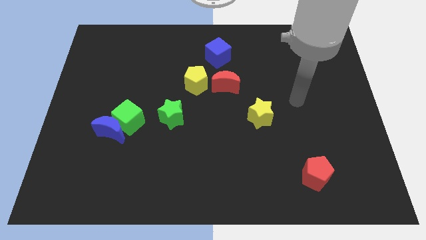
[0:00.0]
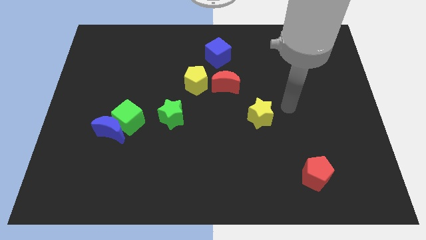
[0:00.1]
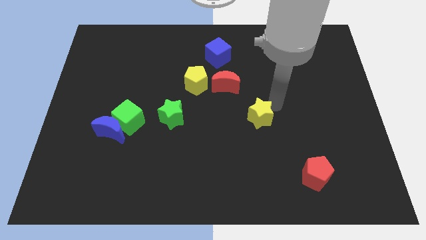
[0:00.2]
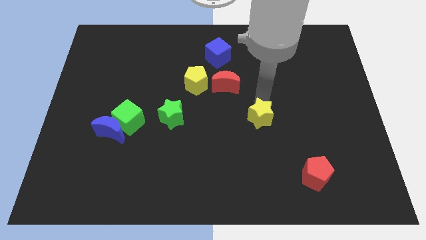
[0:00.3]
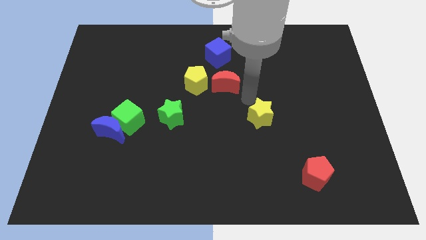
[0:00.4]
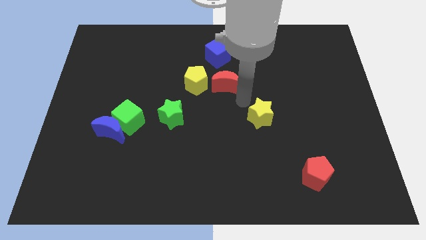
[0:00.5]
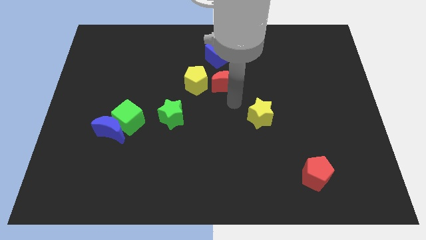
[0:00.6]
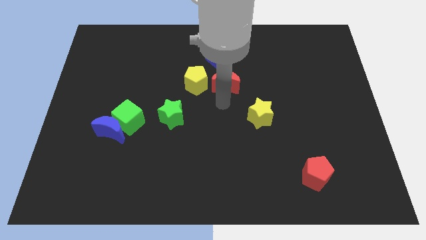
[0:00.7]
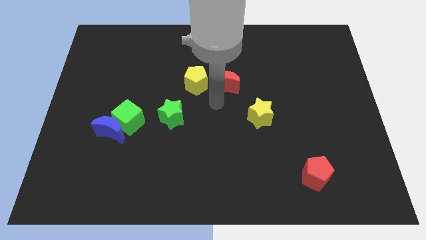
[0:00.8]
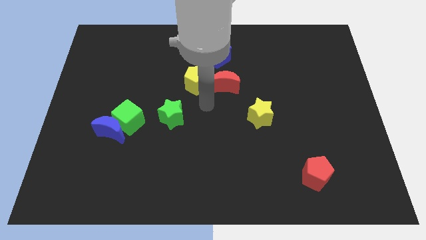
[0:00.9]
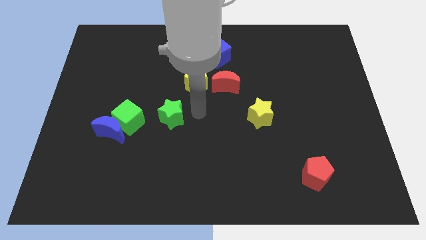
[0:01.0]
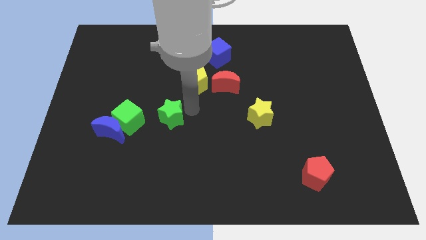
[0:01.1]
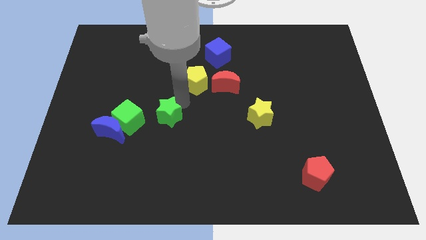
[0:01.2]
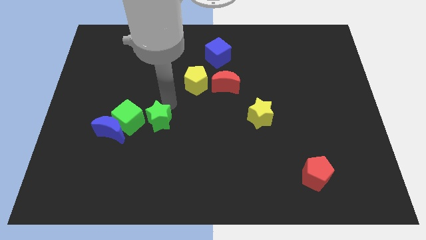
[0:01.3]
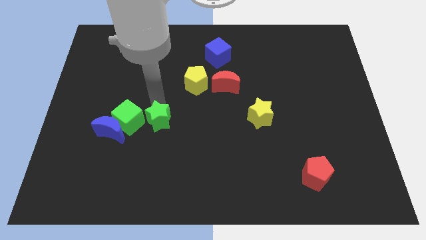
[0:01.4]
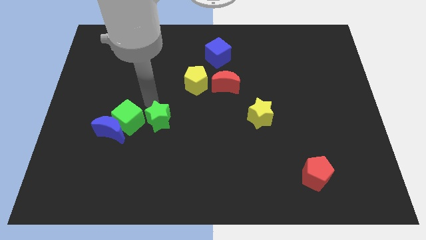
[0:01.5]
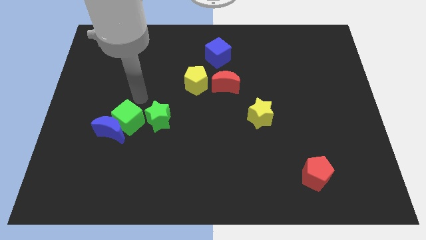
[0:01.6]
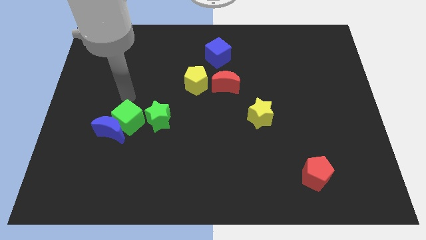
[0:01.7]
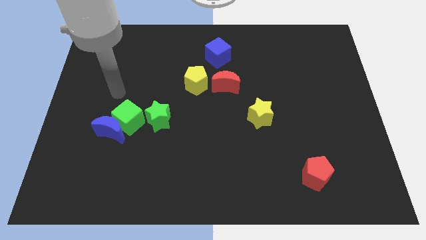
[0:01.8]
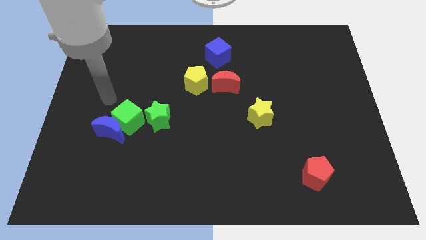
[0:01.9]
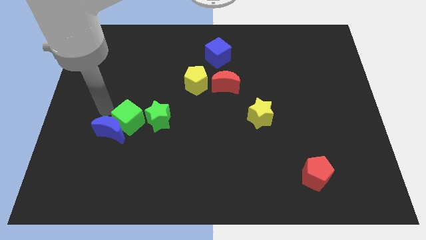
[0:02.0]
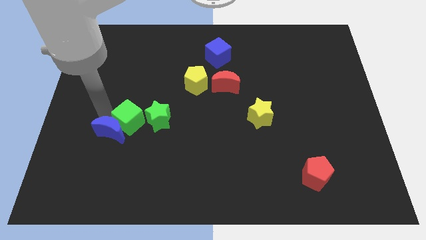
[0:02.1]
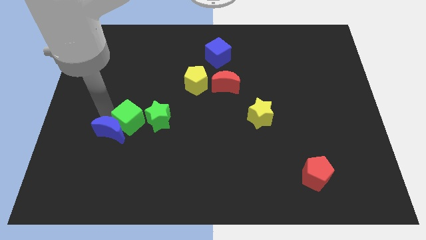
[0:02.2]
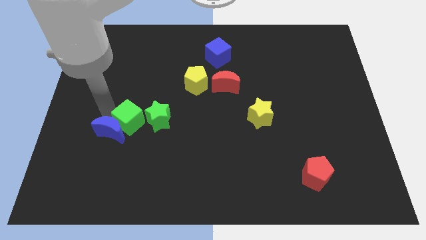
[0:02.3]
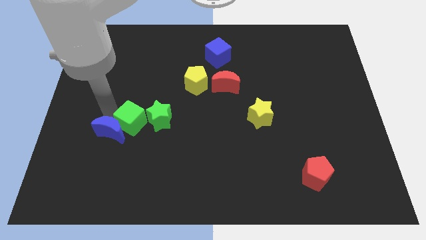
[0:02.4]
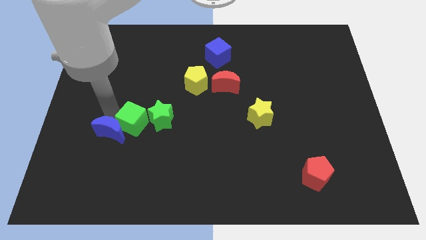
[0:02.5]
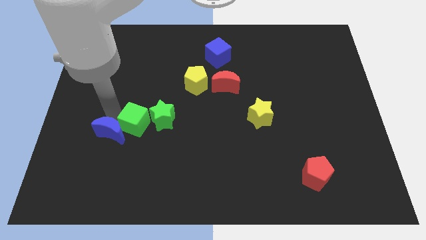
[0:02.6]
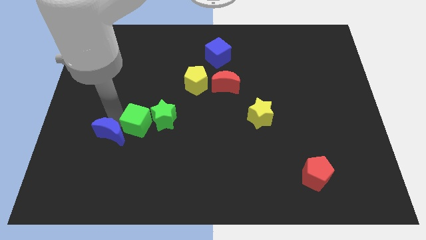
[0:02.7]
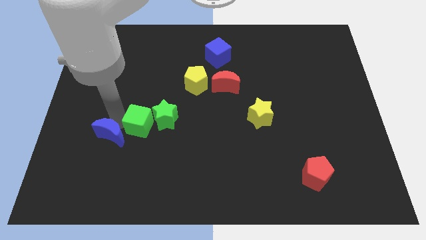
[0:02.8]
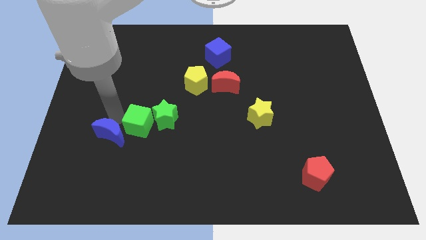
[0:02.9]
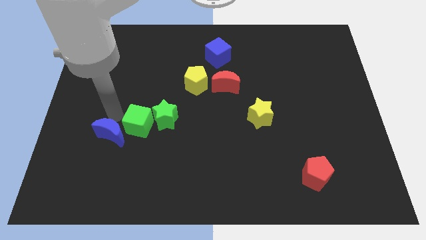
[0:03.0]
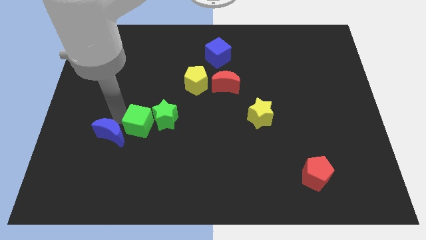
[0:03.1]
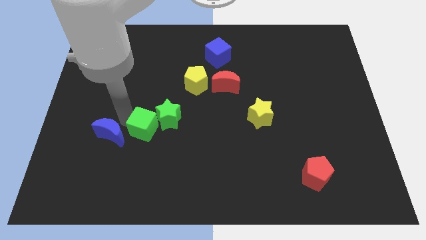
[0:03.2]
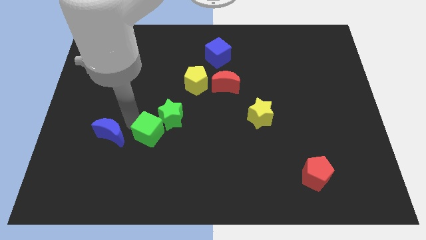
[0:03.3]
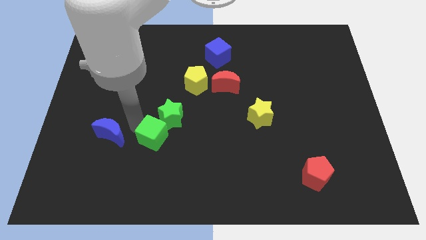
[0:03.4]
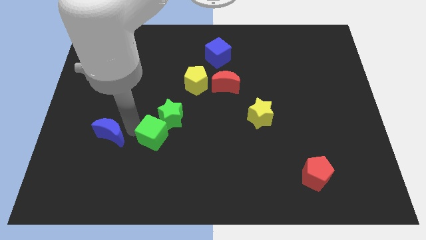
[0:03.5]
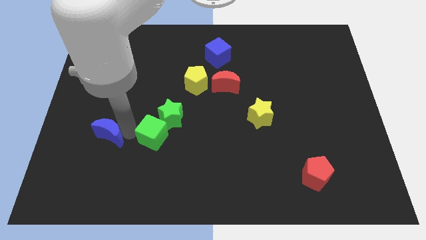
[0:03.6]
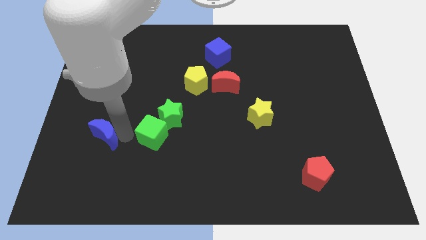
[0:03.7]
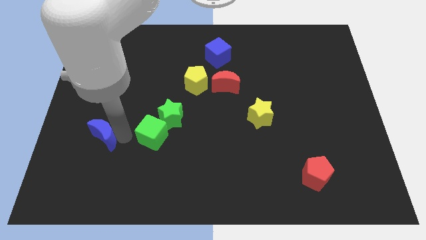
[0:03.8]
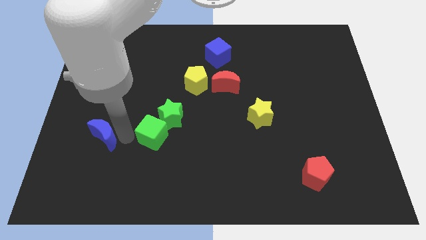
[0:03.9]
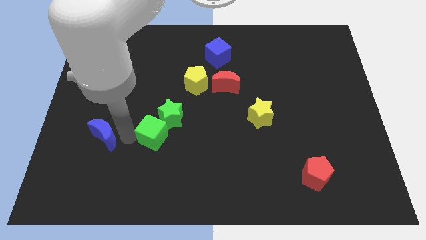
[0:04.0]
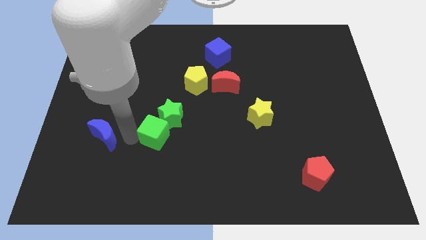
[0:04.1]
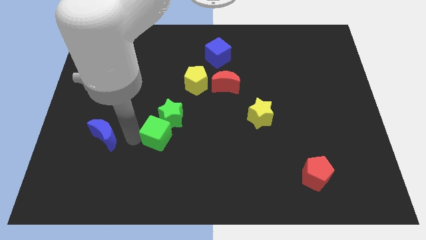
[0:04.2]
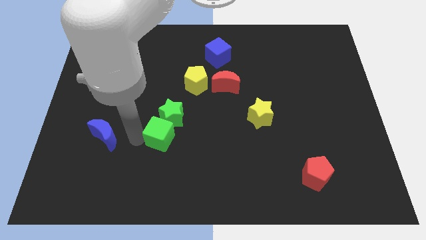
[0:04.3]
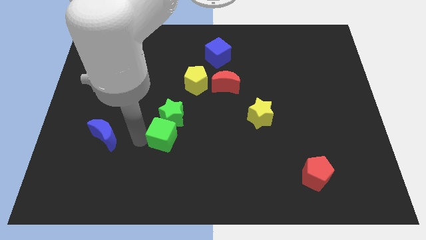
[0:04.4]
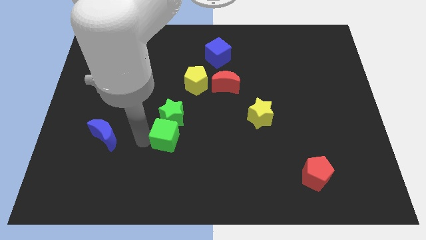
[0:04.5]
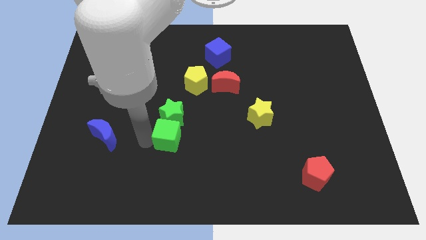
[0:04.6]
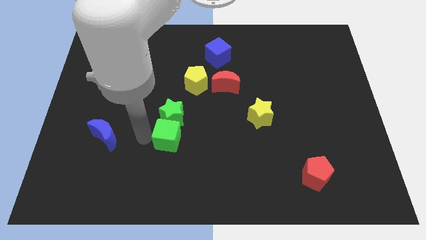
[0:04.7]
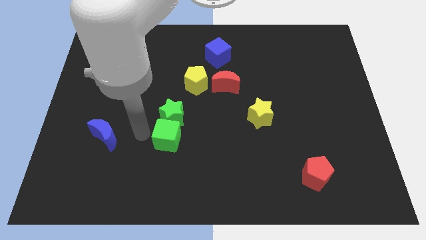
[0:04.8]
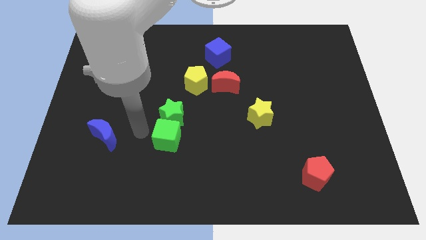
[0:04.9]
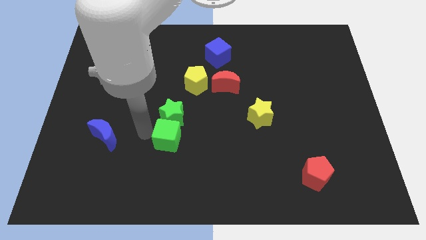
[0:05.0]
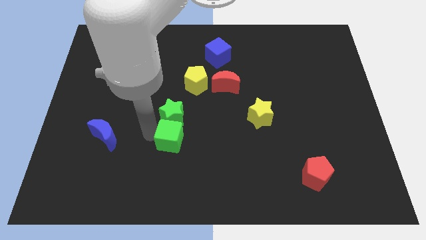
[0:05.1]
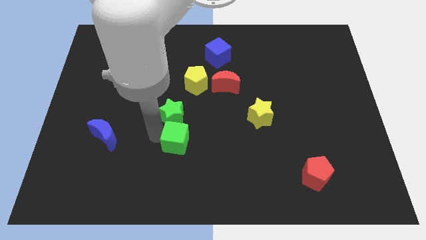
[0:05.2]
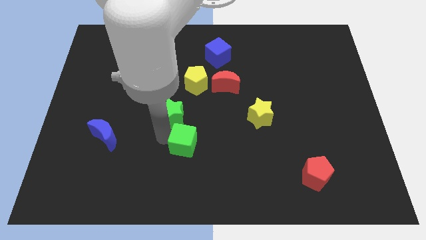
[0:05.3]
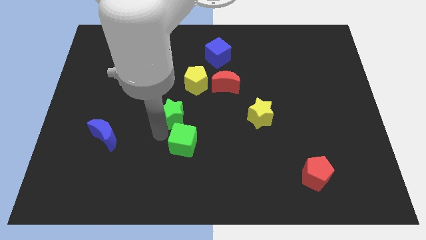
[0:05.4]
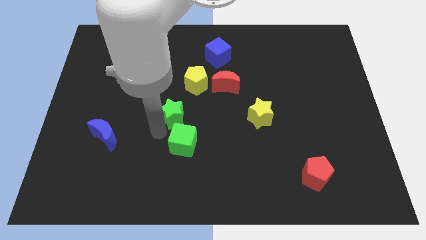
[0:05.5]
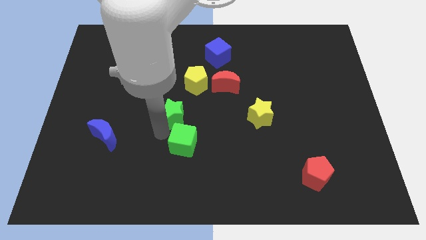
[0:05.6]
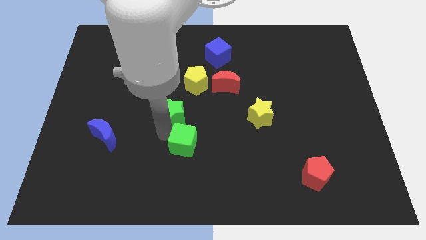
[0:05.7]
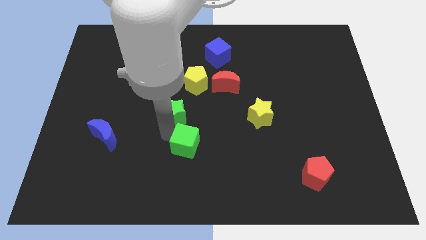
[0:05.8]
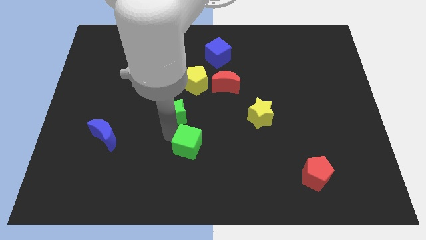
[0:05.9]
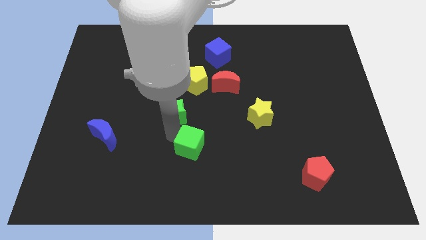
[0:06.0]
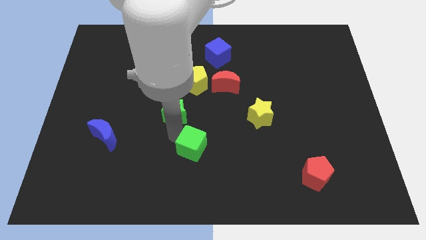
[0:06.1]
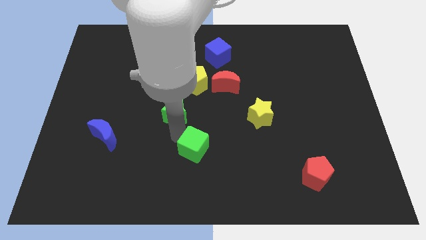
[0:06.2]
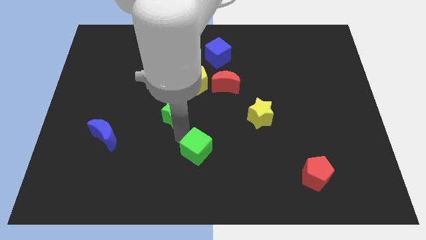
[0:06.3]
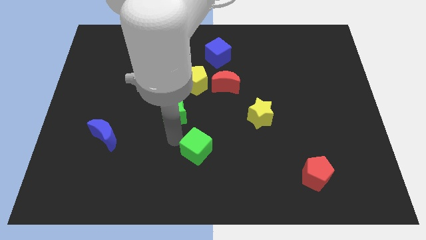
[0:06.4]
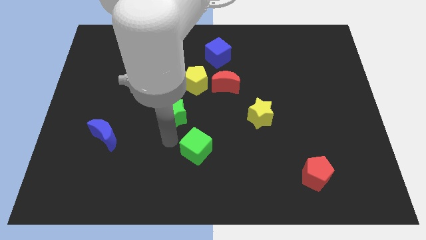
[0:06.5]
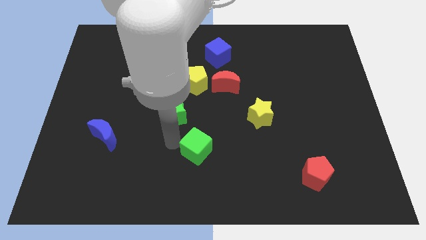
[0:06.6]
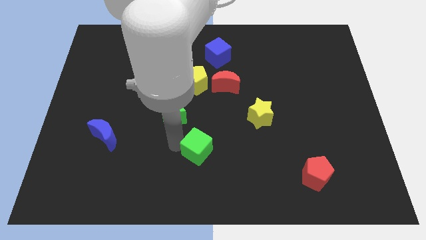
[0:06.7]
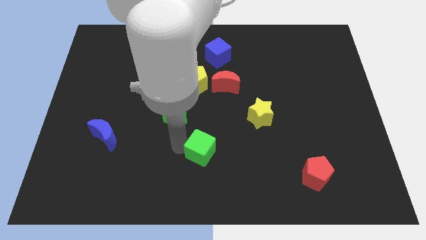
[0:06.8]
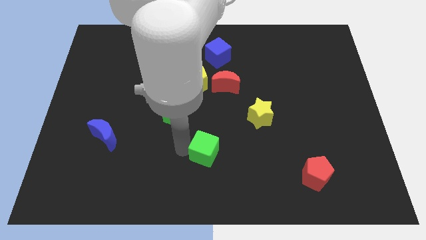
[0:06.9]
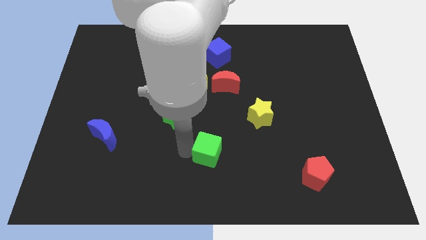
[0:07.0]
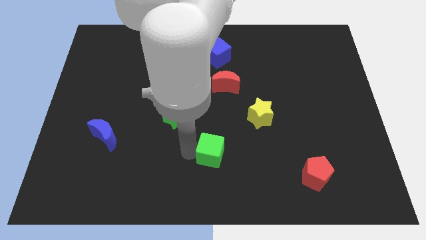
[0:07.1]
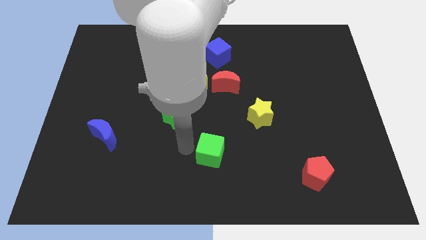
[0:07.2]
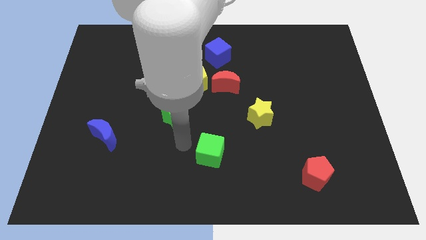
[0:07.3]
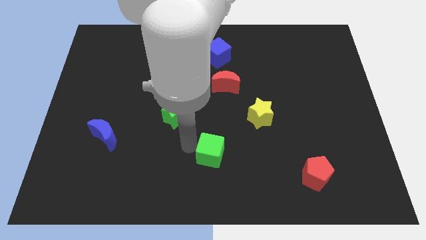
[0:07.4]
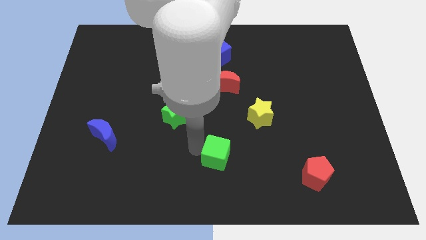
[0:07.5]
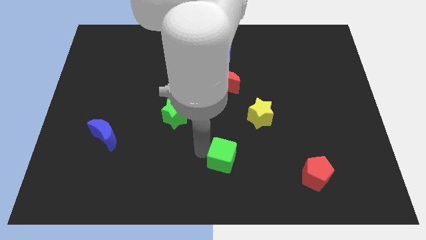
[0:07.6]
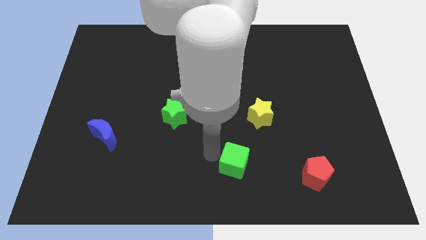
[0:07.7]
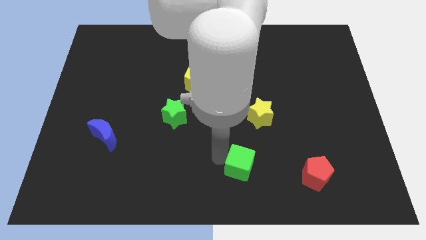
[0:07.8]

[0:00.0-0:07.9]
move the green cube to the left side of the red pentagon

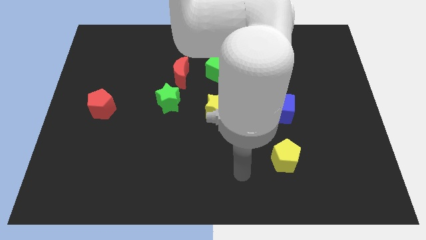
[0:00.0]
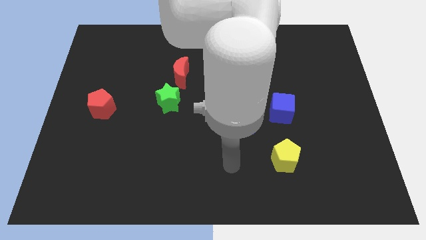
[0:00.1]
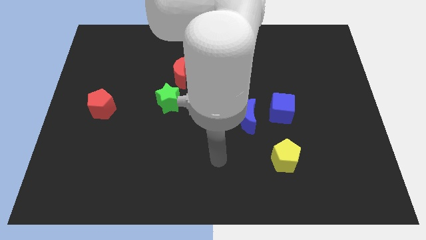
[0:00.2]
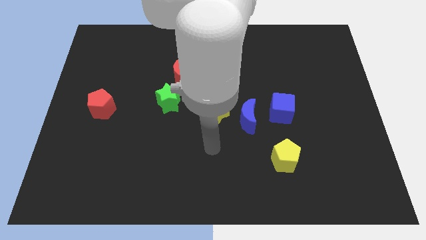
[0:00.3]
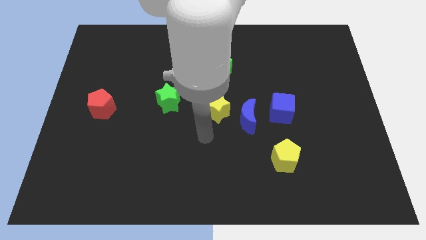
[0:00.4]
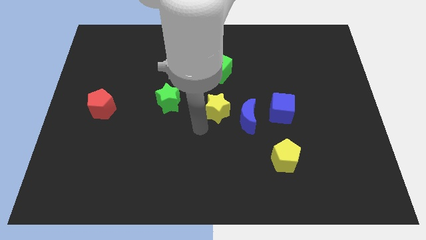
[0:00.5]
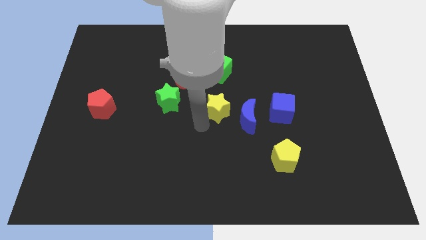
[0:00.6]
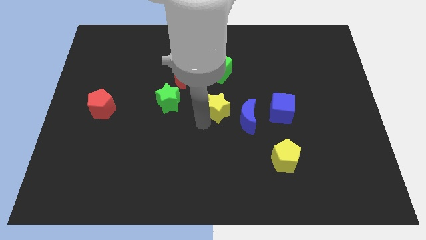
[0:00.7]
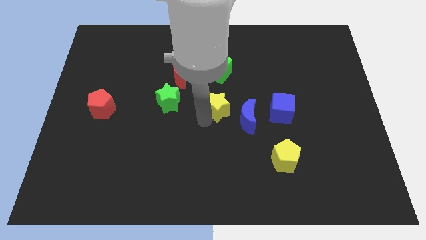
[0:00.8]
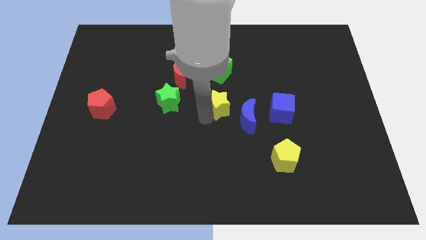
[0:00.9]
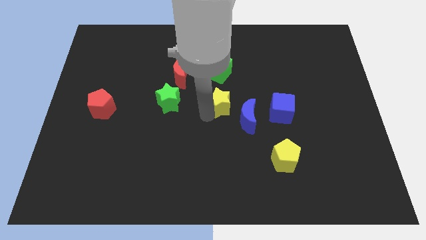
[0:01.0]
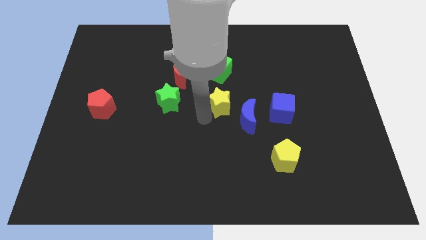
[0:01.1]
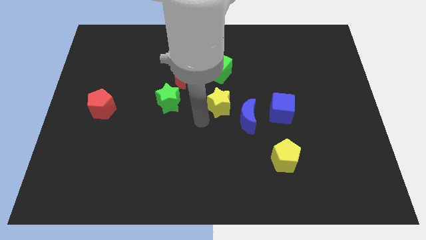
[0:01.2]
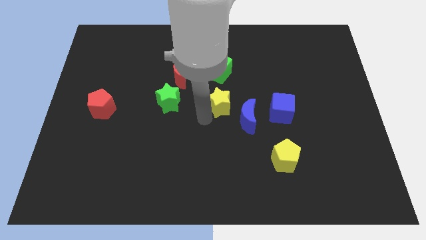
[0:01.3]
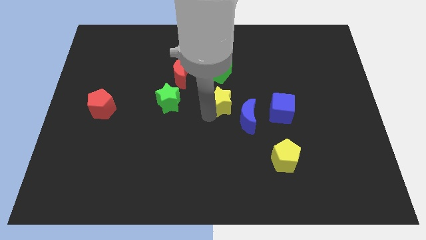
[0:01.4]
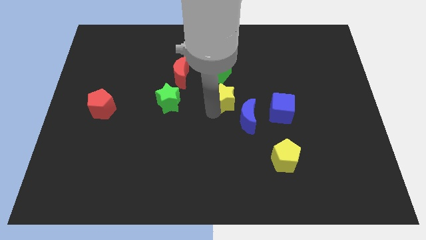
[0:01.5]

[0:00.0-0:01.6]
push the yellow star to the top side of the blue moon
